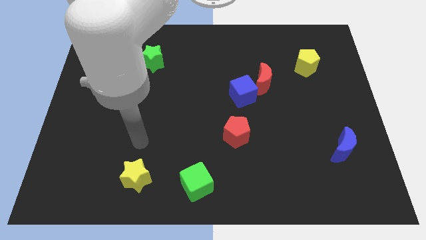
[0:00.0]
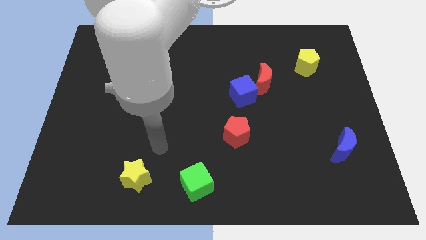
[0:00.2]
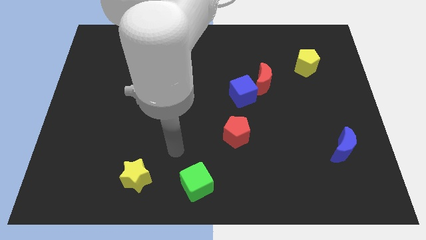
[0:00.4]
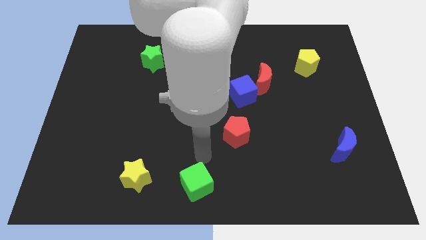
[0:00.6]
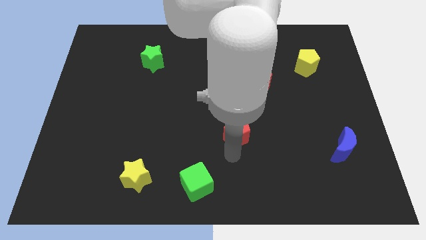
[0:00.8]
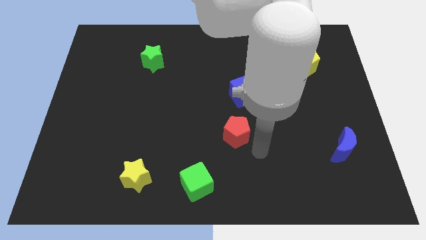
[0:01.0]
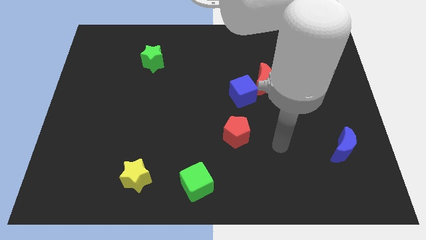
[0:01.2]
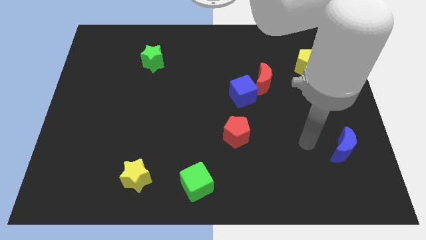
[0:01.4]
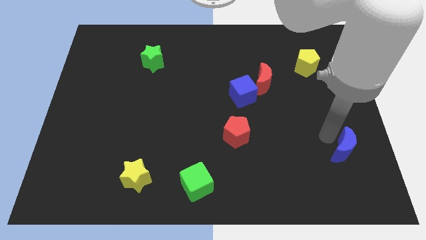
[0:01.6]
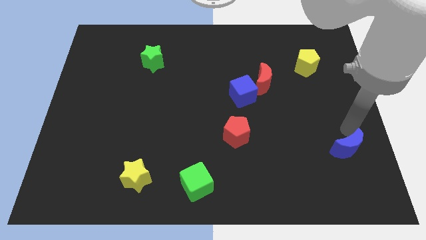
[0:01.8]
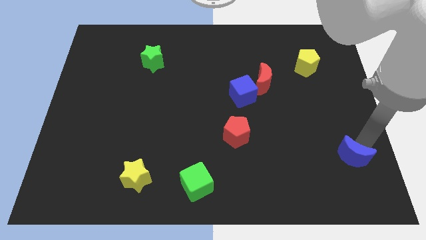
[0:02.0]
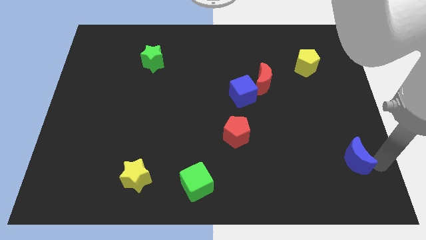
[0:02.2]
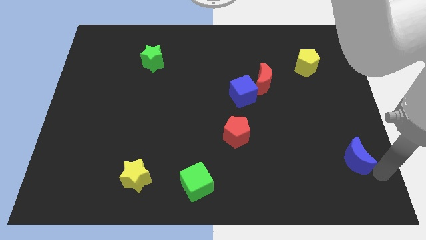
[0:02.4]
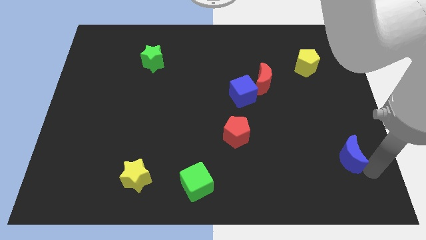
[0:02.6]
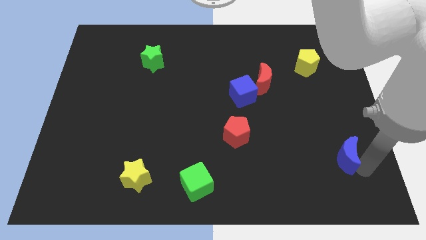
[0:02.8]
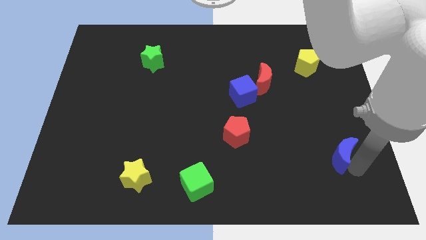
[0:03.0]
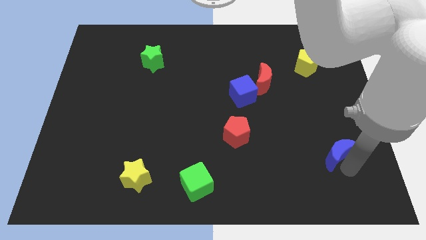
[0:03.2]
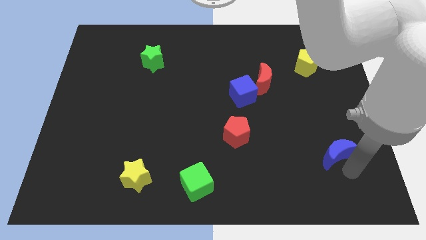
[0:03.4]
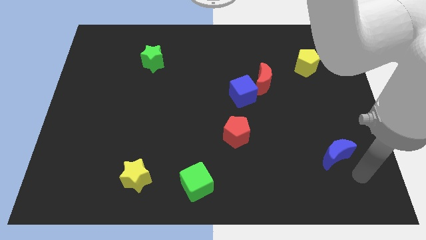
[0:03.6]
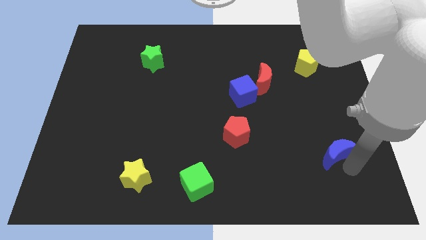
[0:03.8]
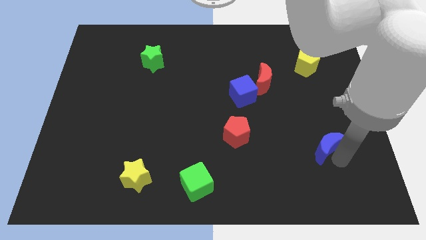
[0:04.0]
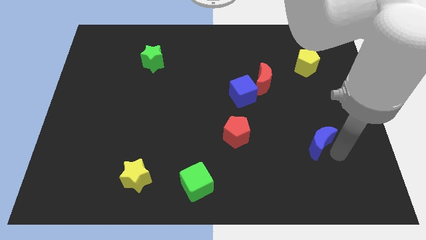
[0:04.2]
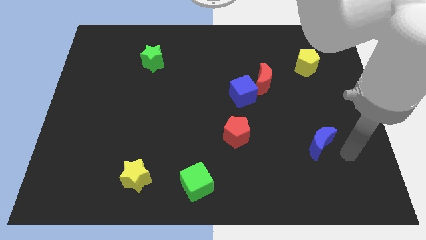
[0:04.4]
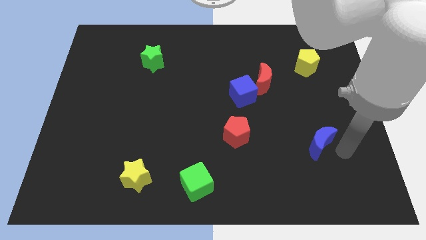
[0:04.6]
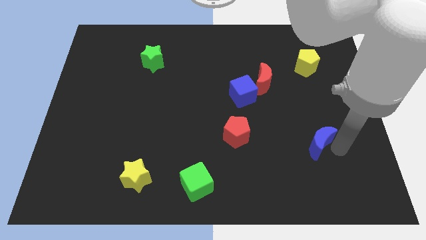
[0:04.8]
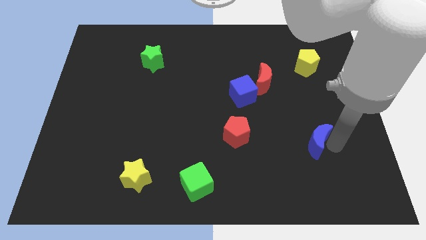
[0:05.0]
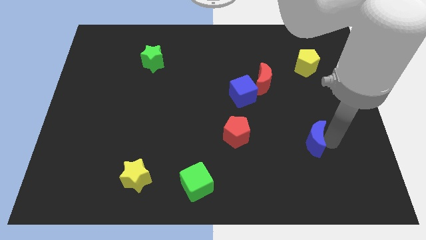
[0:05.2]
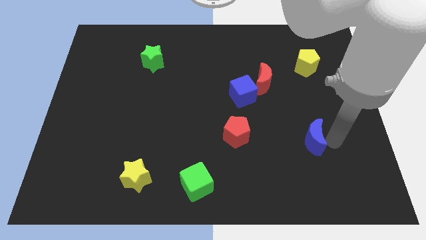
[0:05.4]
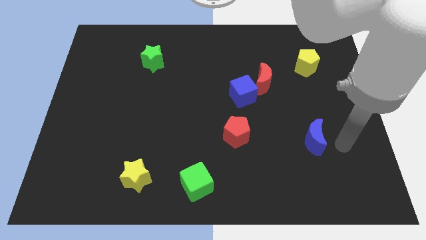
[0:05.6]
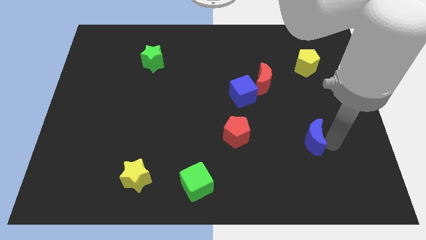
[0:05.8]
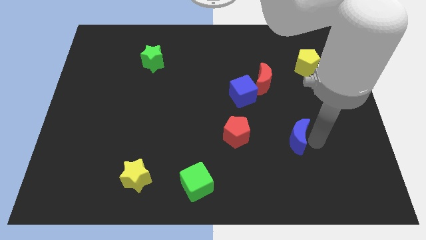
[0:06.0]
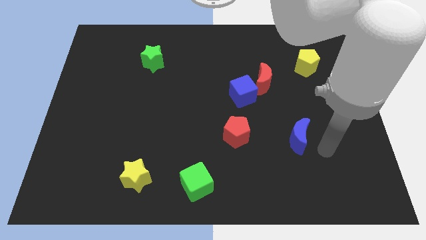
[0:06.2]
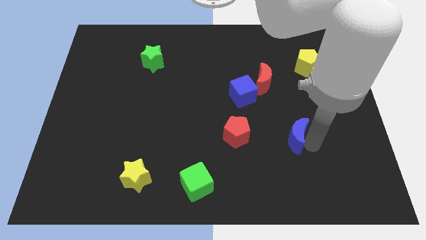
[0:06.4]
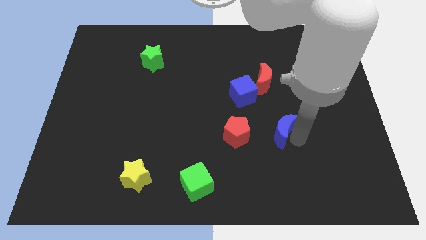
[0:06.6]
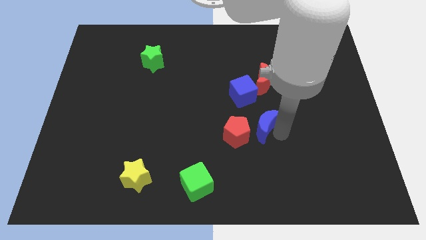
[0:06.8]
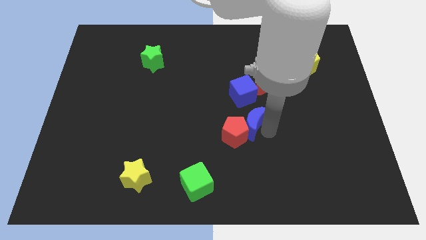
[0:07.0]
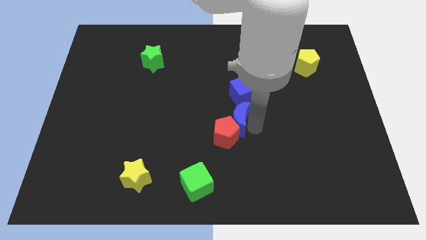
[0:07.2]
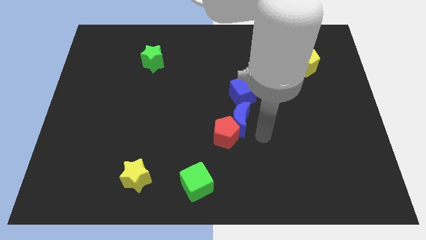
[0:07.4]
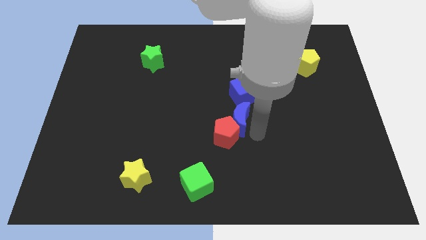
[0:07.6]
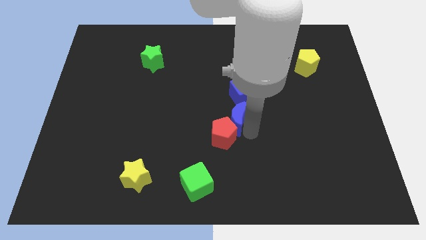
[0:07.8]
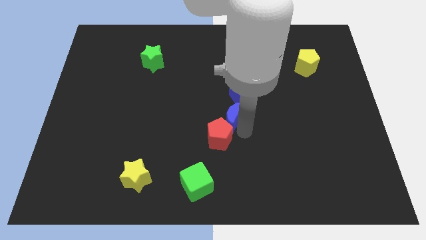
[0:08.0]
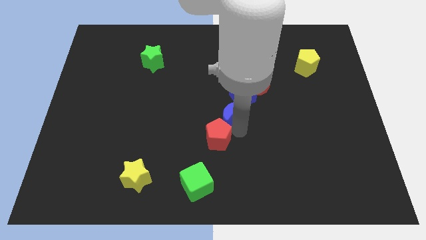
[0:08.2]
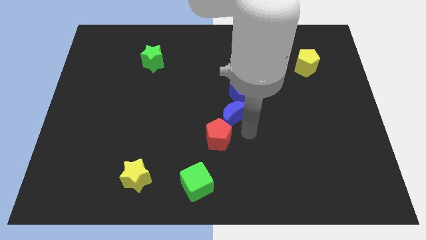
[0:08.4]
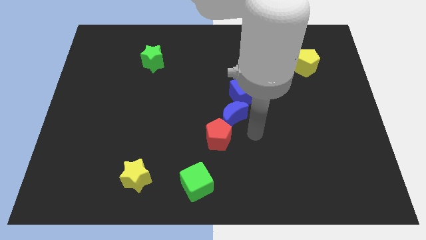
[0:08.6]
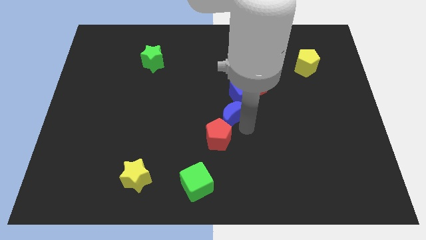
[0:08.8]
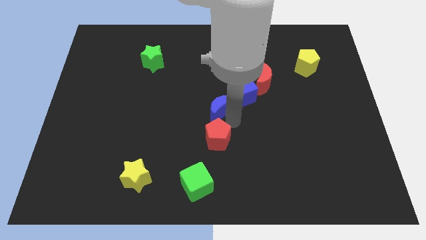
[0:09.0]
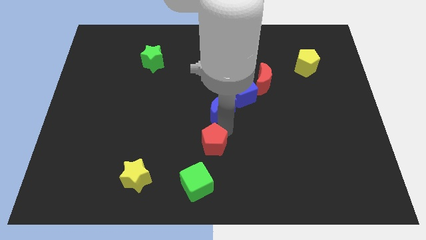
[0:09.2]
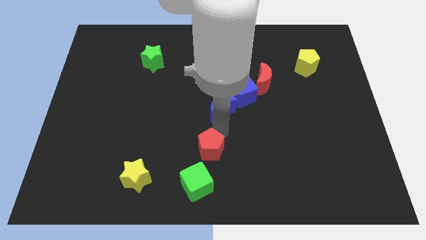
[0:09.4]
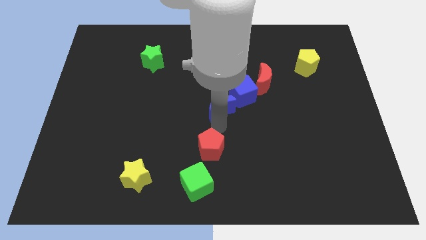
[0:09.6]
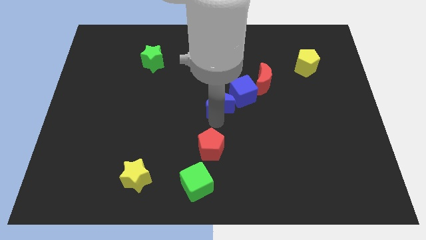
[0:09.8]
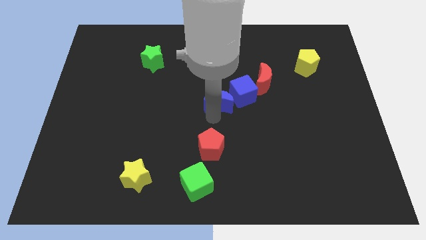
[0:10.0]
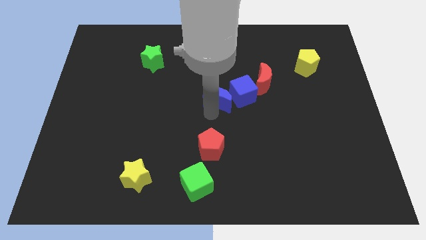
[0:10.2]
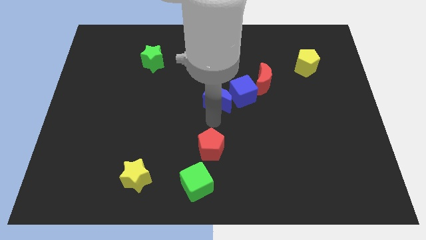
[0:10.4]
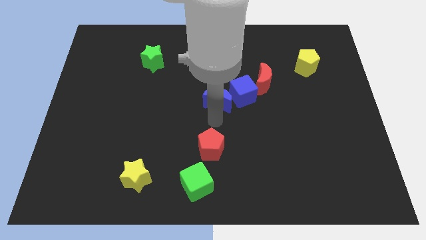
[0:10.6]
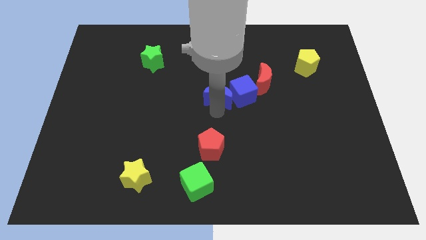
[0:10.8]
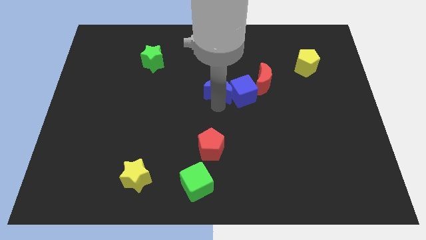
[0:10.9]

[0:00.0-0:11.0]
push the blue moon to the top left side of the blue cube

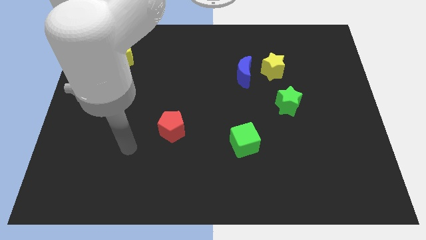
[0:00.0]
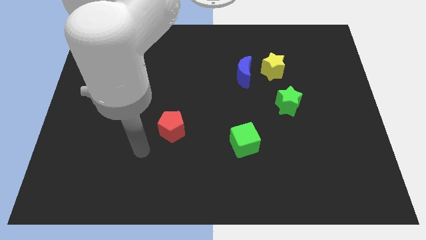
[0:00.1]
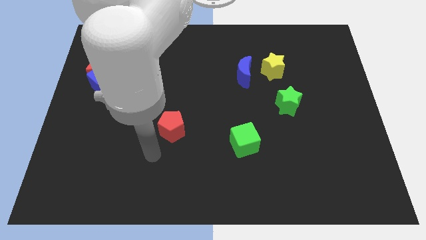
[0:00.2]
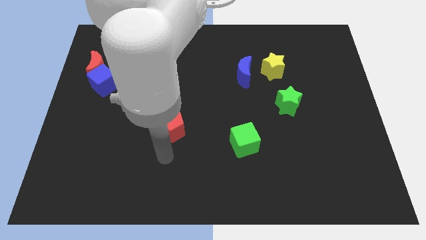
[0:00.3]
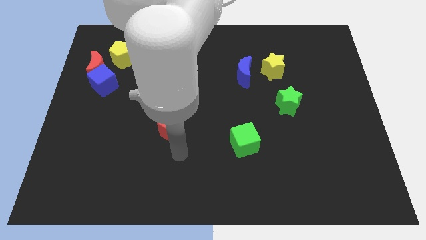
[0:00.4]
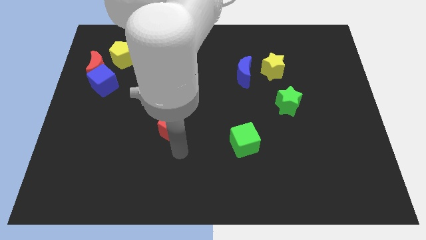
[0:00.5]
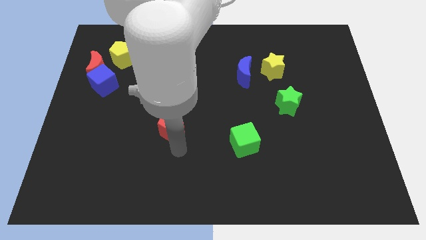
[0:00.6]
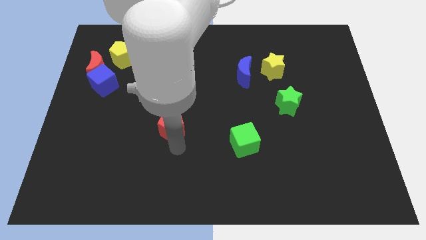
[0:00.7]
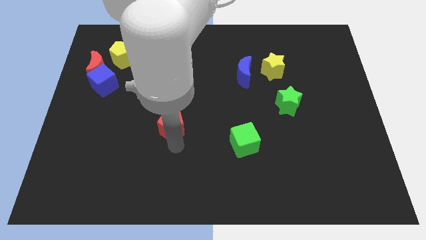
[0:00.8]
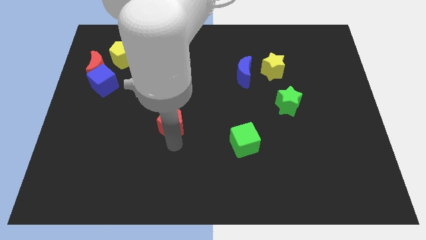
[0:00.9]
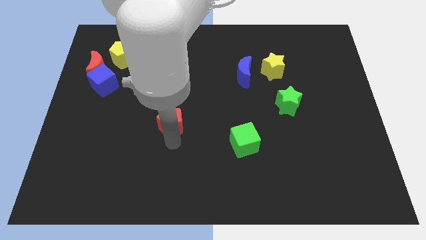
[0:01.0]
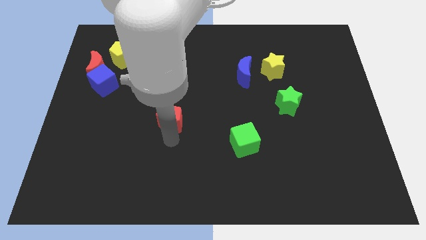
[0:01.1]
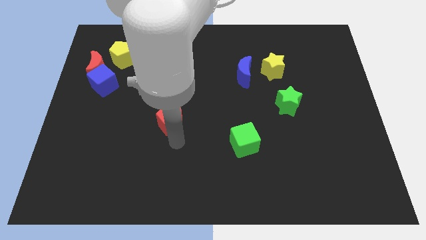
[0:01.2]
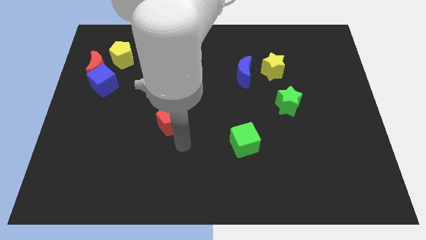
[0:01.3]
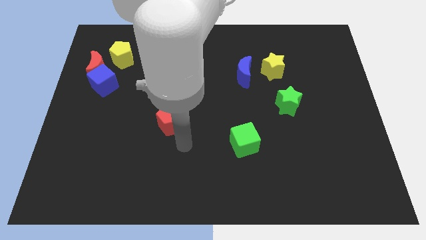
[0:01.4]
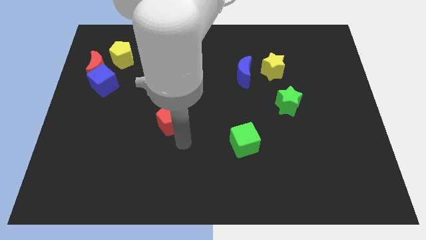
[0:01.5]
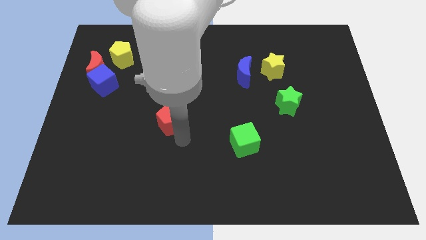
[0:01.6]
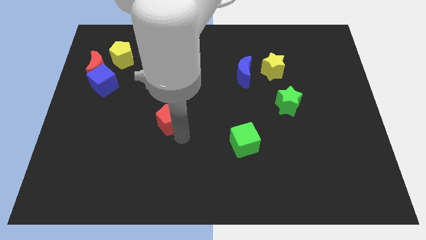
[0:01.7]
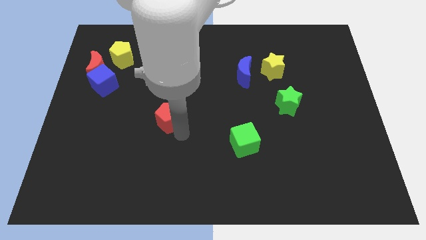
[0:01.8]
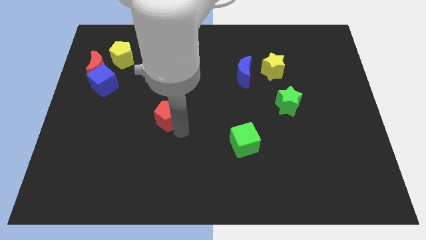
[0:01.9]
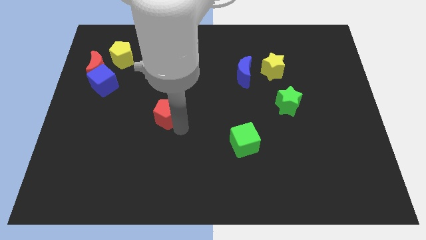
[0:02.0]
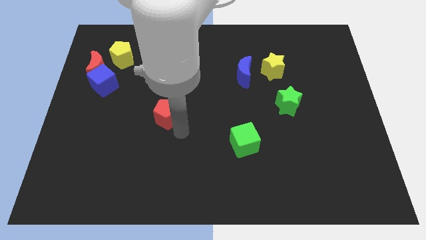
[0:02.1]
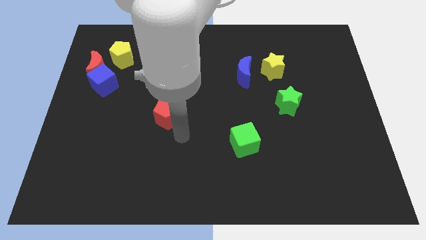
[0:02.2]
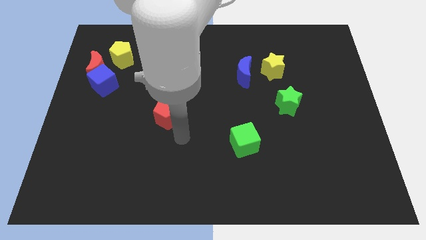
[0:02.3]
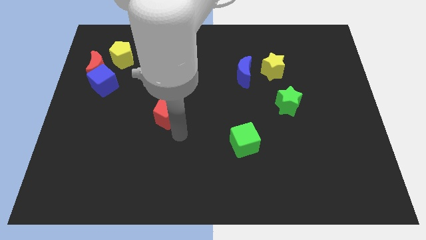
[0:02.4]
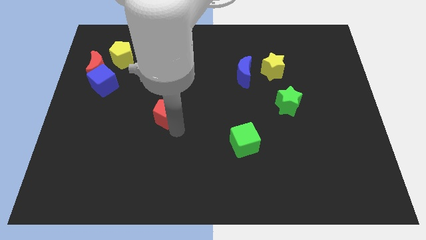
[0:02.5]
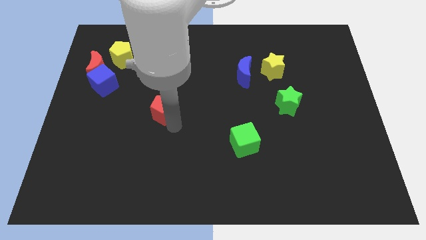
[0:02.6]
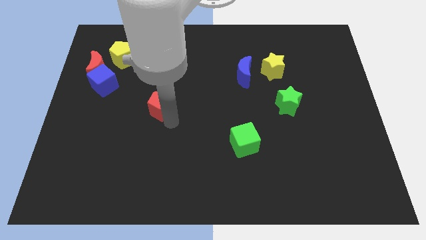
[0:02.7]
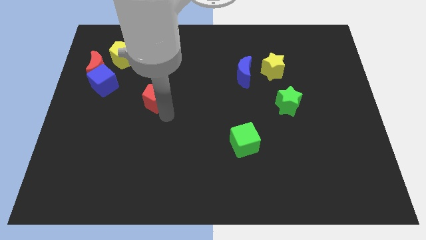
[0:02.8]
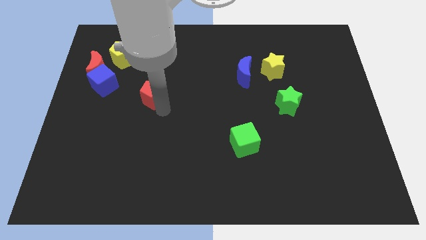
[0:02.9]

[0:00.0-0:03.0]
slide the red pentagon just right of the blue cube

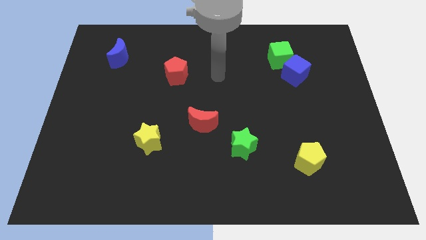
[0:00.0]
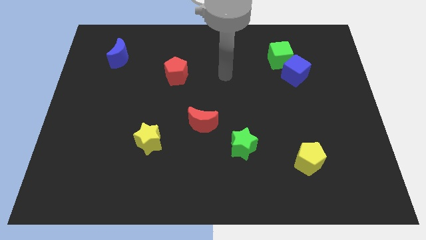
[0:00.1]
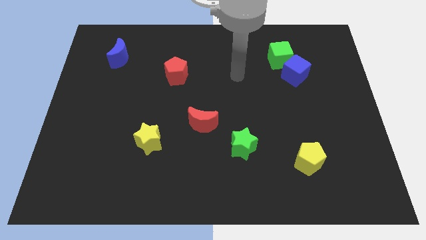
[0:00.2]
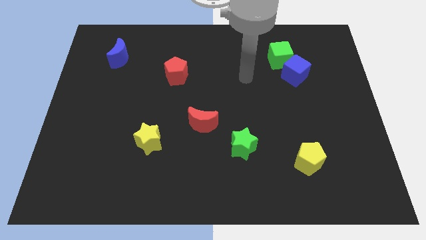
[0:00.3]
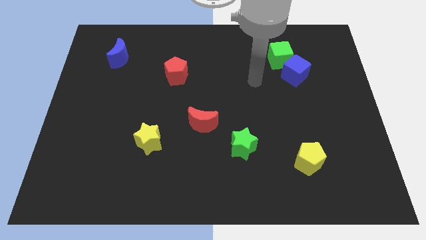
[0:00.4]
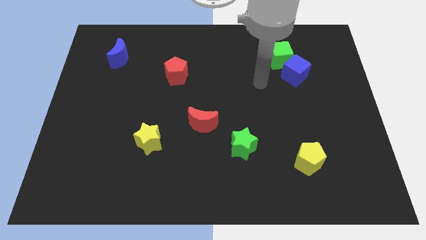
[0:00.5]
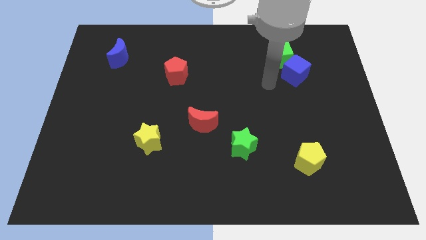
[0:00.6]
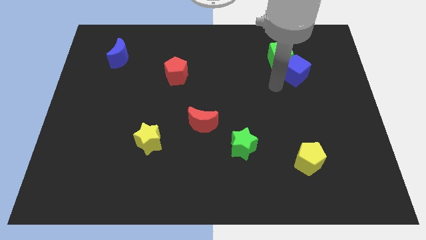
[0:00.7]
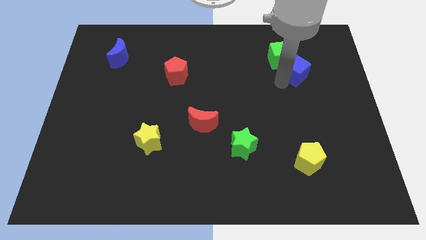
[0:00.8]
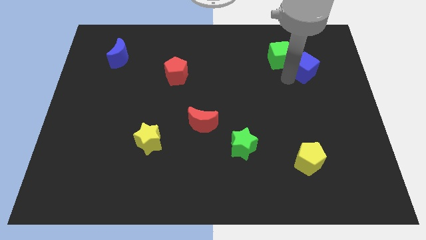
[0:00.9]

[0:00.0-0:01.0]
move the blue cube right of the green cube
